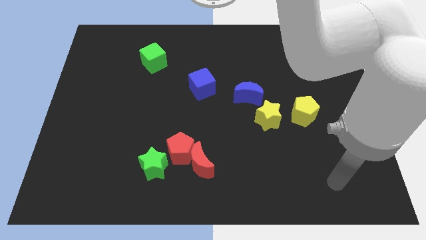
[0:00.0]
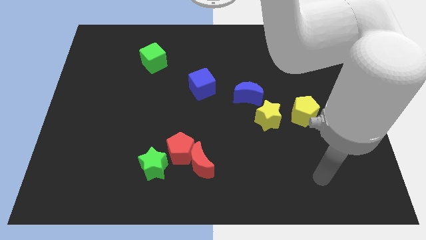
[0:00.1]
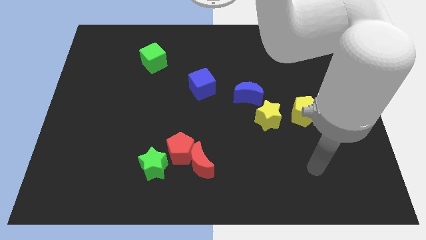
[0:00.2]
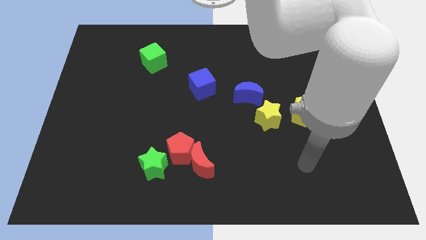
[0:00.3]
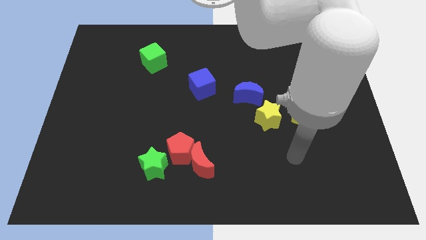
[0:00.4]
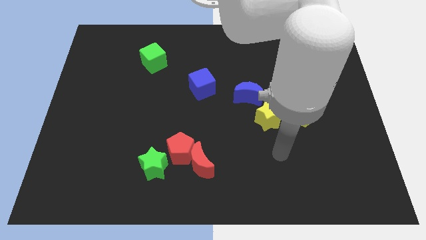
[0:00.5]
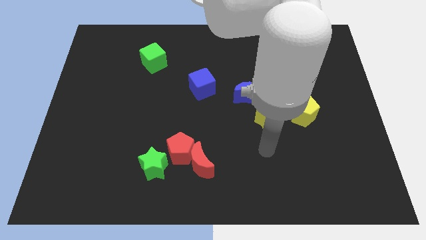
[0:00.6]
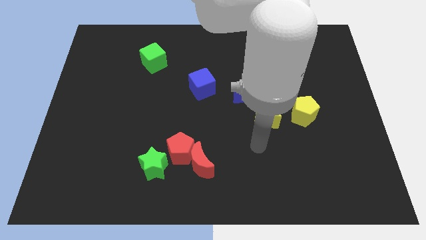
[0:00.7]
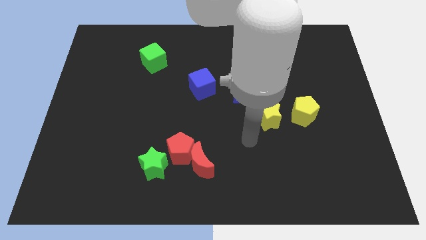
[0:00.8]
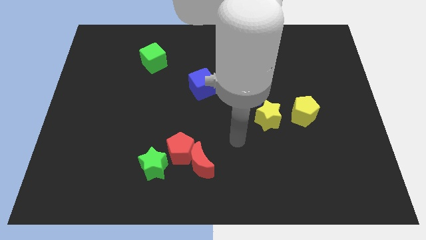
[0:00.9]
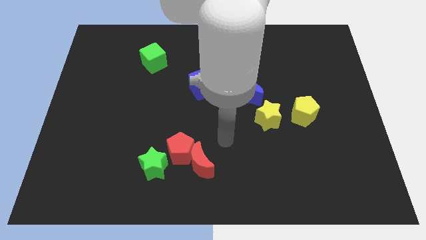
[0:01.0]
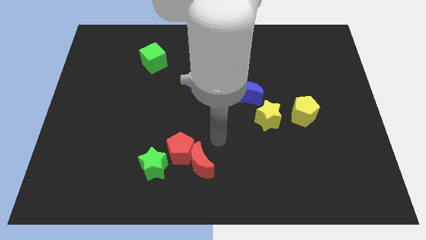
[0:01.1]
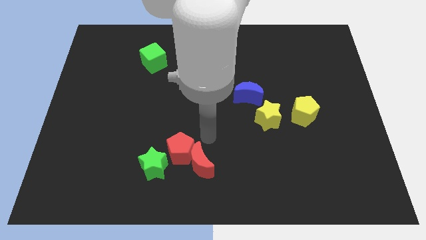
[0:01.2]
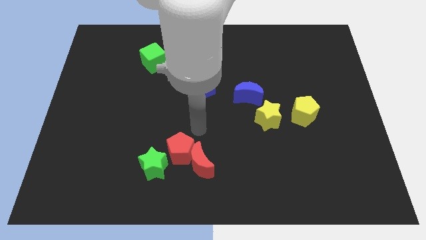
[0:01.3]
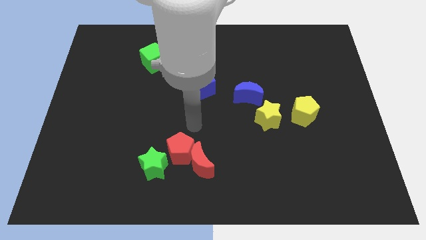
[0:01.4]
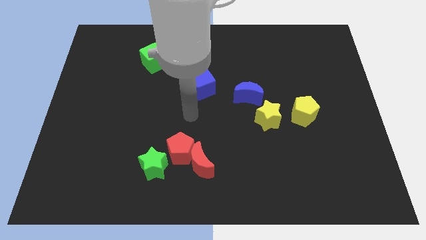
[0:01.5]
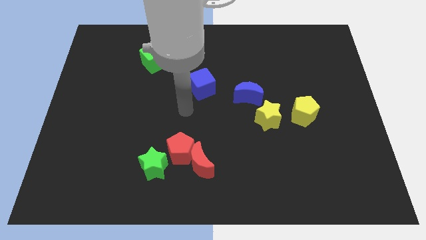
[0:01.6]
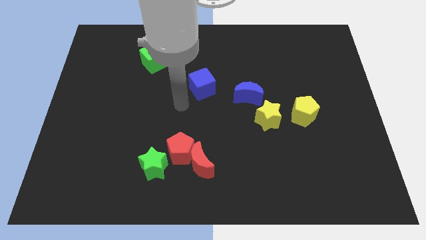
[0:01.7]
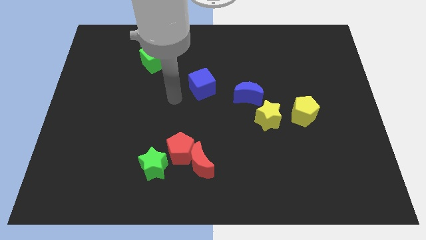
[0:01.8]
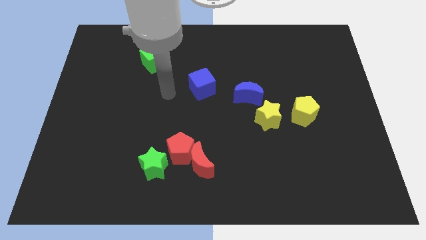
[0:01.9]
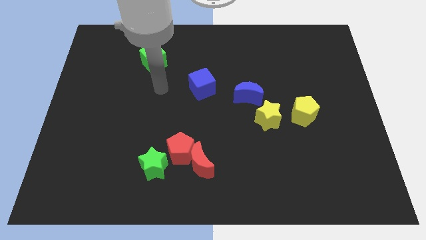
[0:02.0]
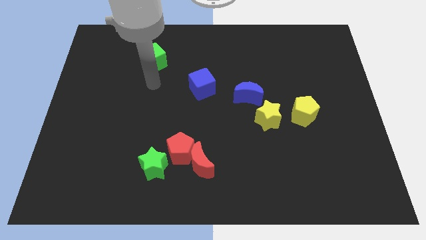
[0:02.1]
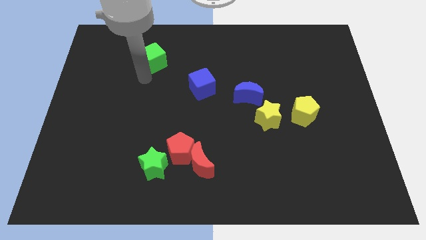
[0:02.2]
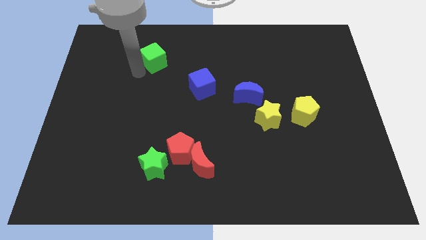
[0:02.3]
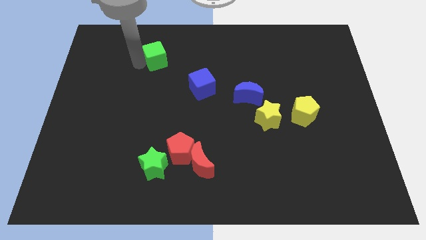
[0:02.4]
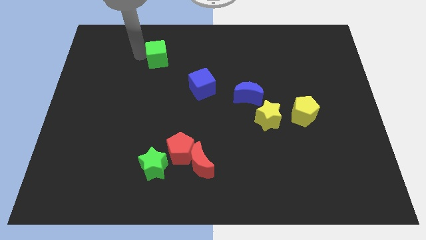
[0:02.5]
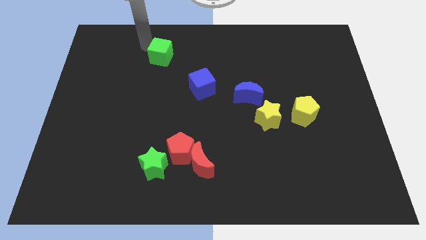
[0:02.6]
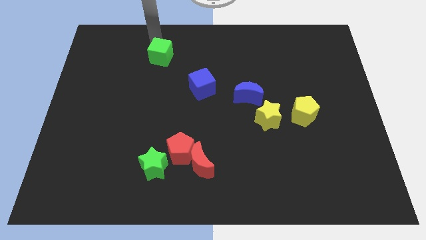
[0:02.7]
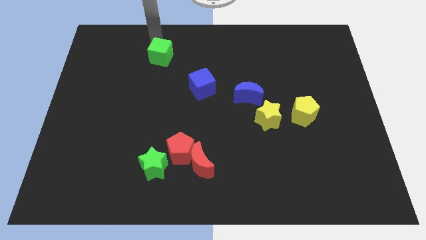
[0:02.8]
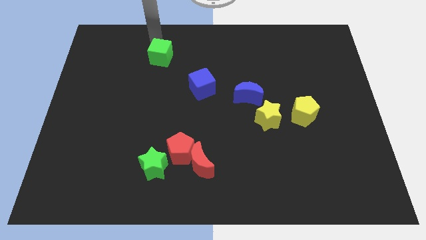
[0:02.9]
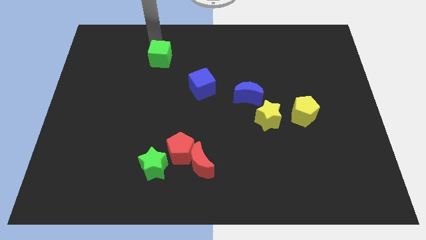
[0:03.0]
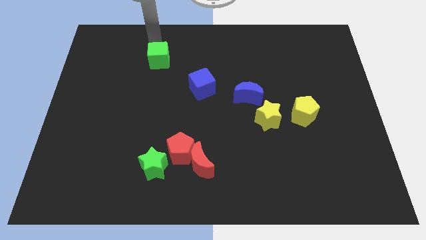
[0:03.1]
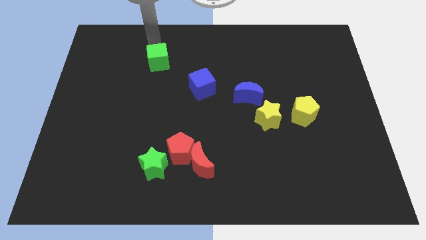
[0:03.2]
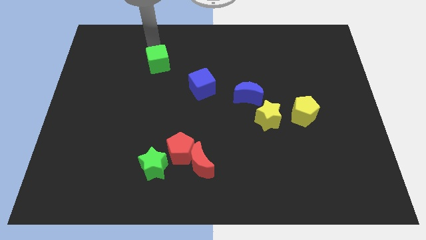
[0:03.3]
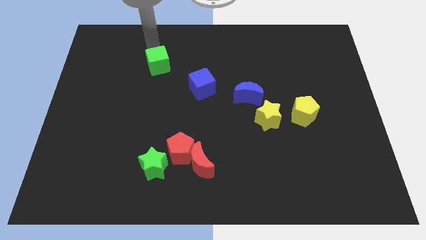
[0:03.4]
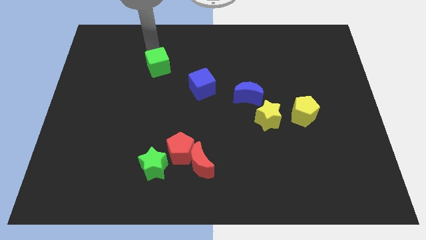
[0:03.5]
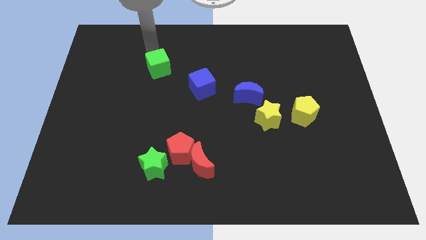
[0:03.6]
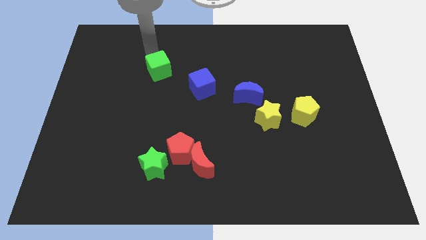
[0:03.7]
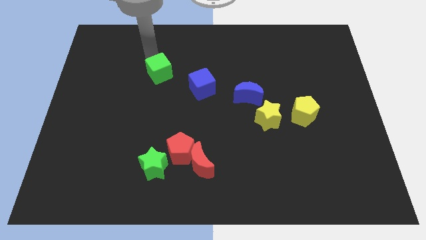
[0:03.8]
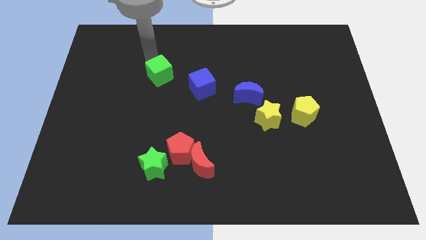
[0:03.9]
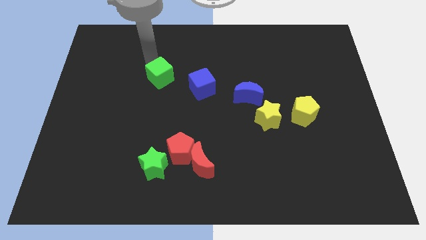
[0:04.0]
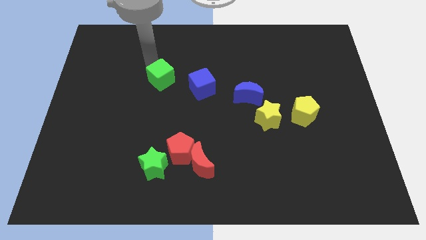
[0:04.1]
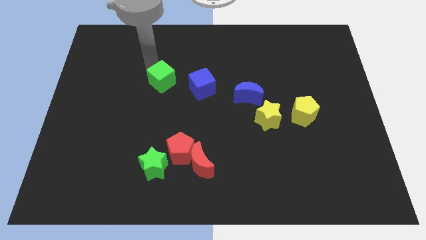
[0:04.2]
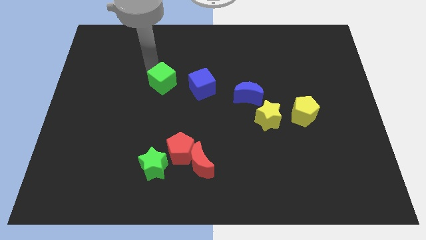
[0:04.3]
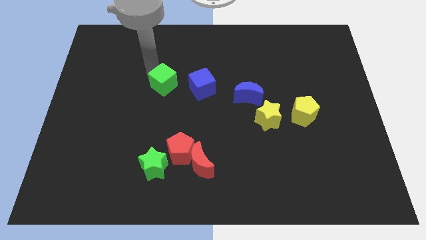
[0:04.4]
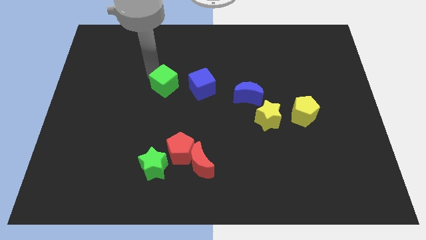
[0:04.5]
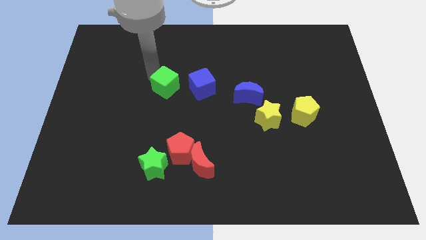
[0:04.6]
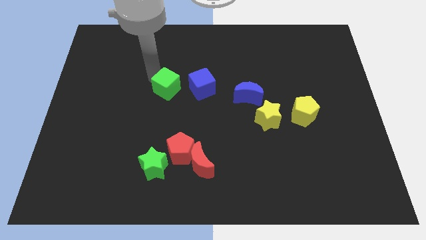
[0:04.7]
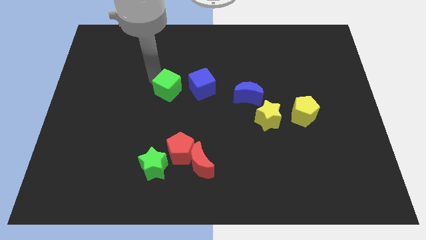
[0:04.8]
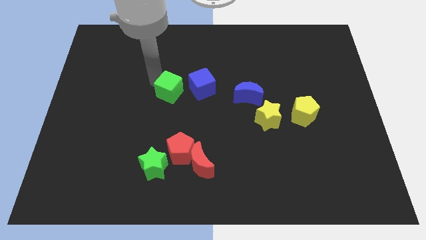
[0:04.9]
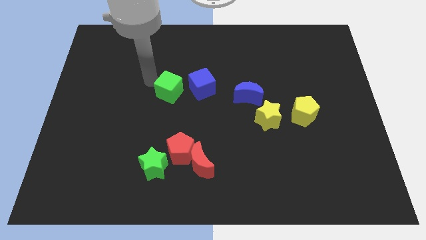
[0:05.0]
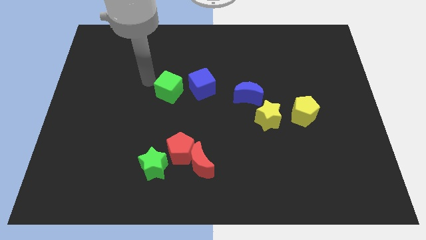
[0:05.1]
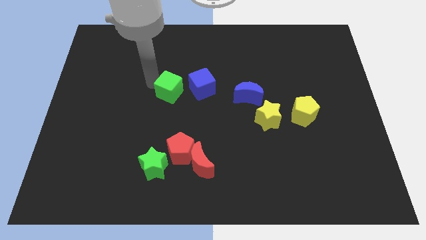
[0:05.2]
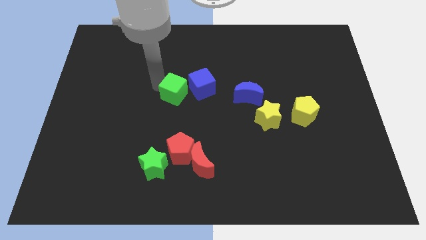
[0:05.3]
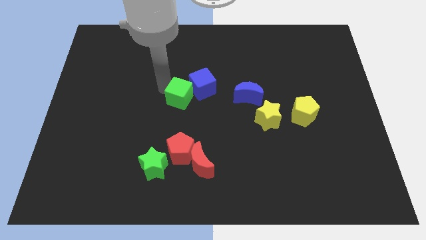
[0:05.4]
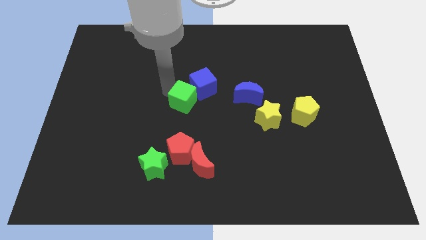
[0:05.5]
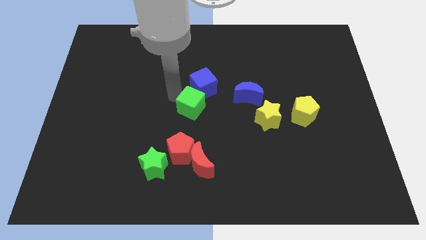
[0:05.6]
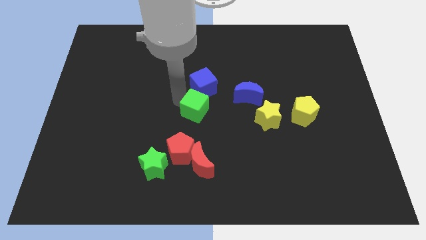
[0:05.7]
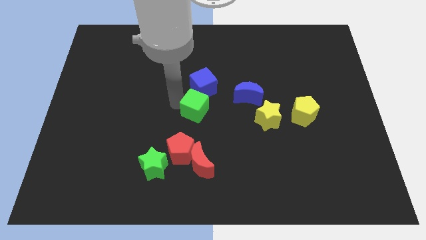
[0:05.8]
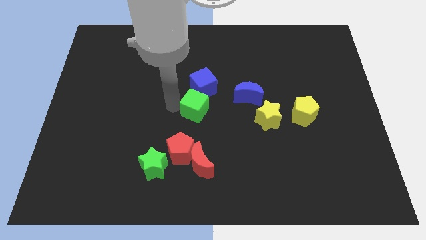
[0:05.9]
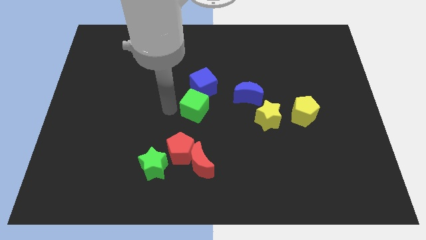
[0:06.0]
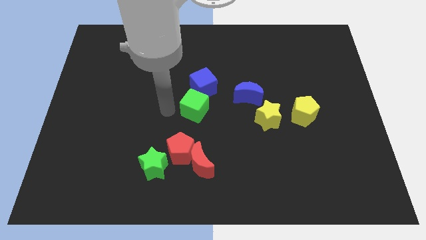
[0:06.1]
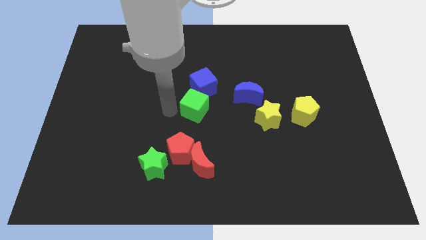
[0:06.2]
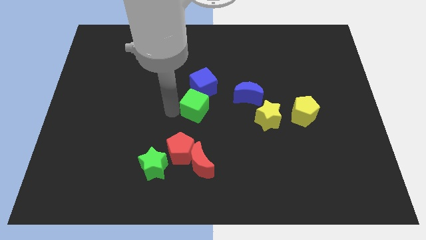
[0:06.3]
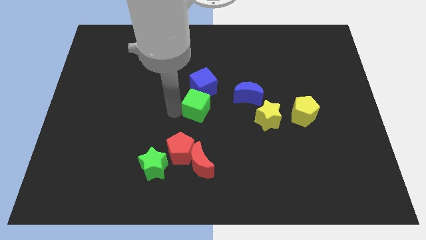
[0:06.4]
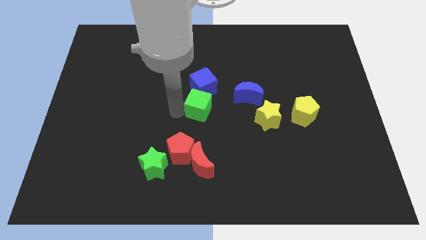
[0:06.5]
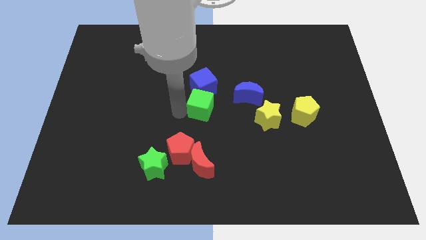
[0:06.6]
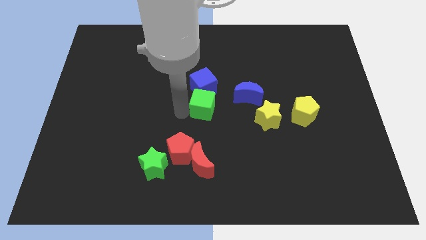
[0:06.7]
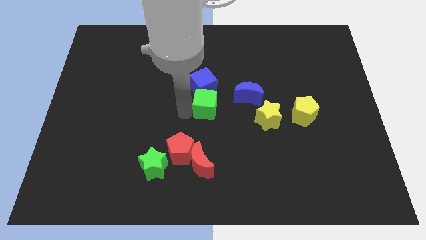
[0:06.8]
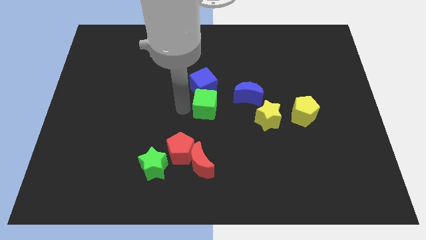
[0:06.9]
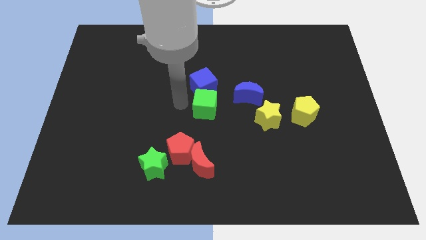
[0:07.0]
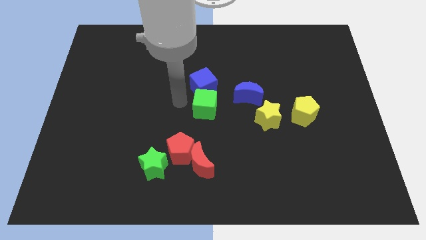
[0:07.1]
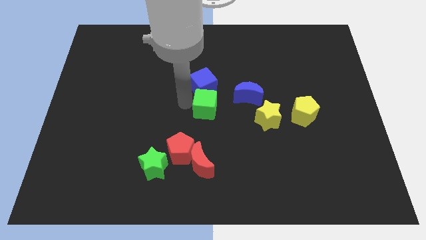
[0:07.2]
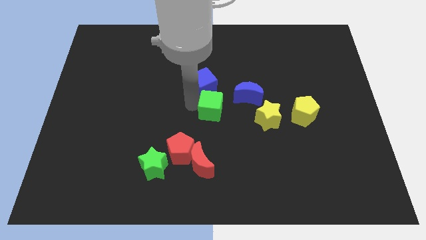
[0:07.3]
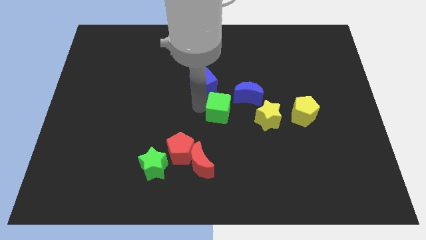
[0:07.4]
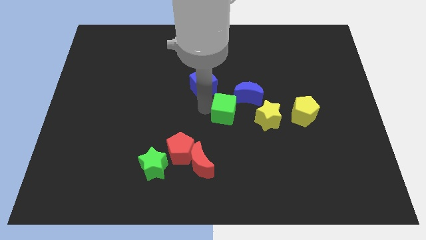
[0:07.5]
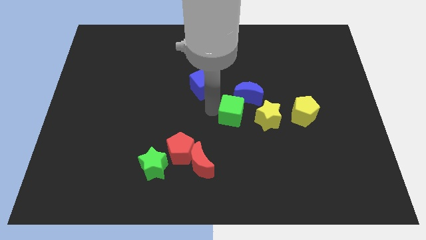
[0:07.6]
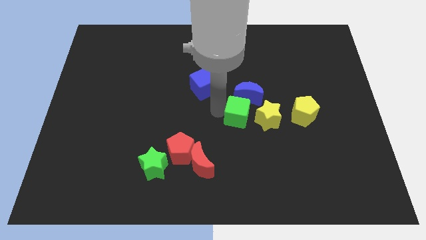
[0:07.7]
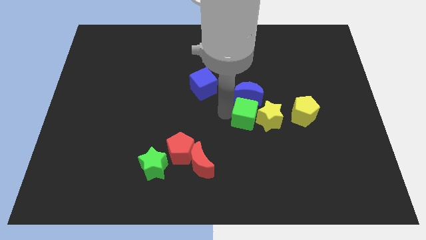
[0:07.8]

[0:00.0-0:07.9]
push the green cube close to the yellow star
